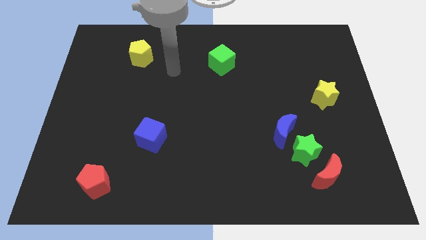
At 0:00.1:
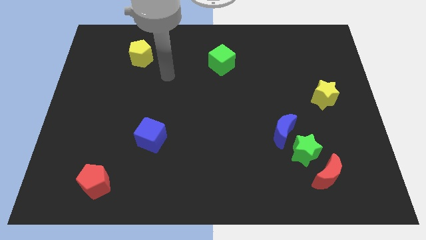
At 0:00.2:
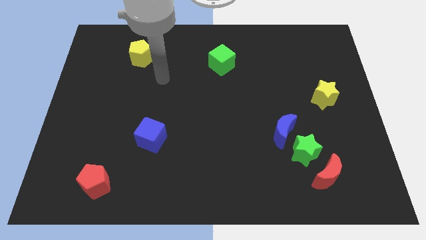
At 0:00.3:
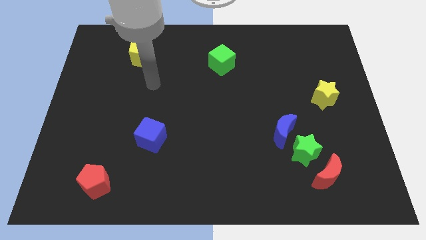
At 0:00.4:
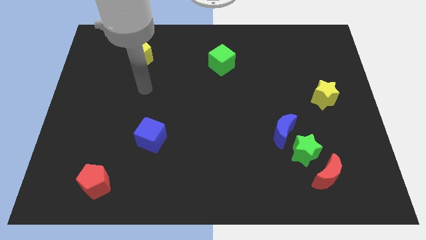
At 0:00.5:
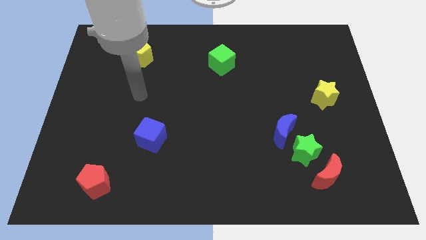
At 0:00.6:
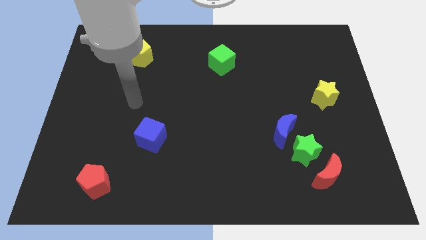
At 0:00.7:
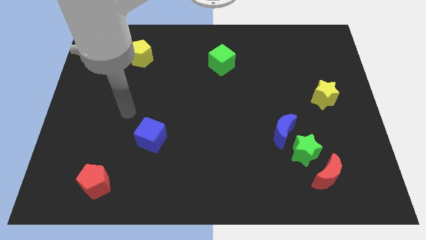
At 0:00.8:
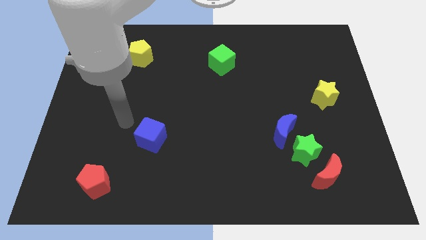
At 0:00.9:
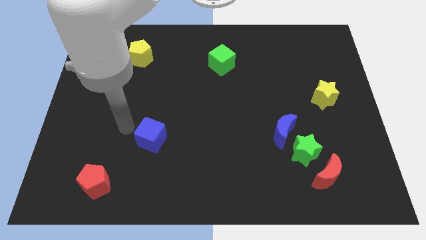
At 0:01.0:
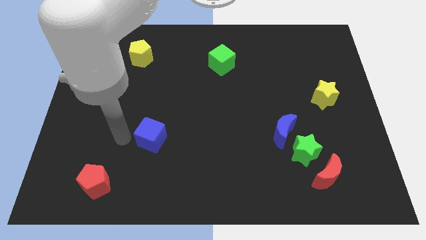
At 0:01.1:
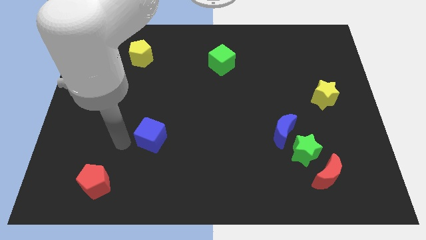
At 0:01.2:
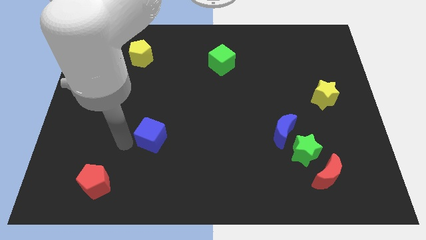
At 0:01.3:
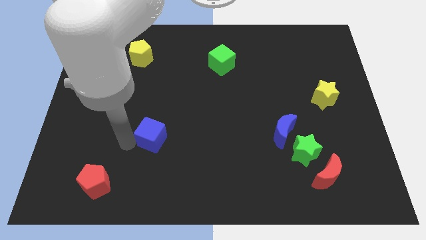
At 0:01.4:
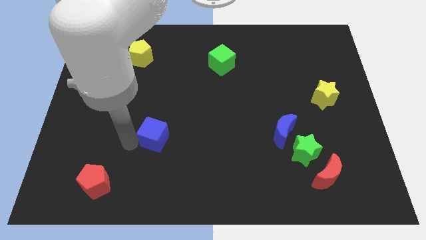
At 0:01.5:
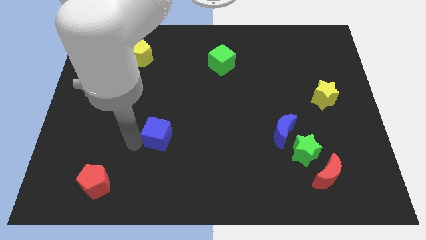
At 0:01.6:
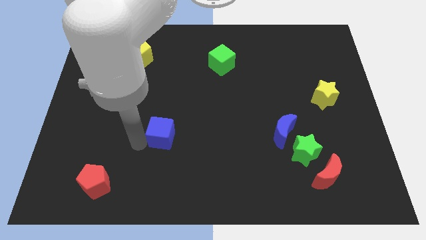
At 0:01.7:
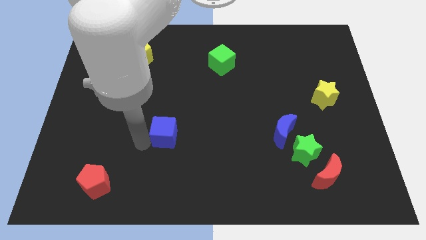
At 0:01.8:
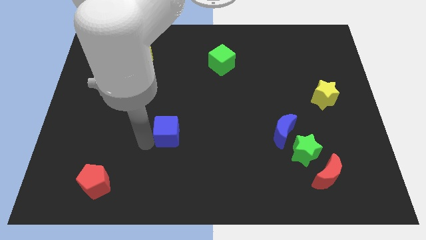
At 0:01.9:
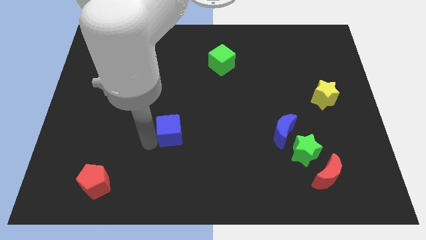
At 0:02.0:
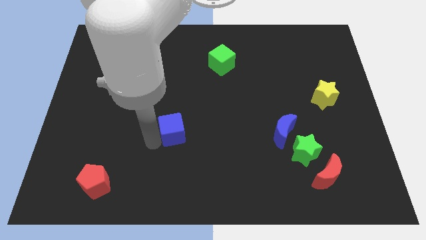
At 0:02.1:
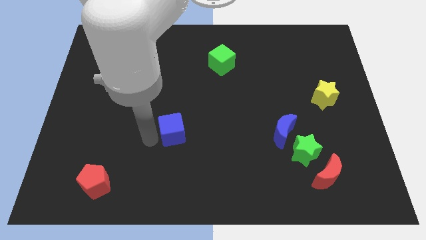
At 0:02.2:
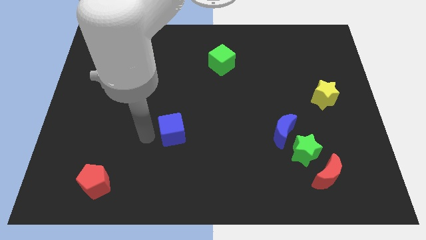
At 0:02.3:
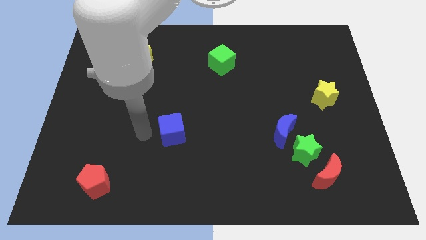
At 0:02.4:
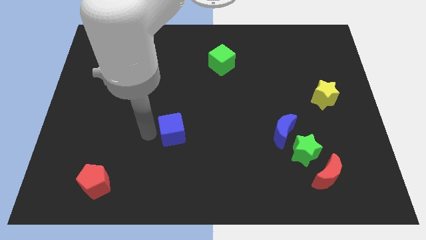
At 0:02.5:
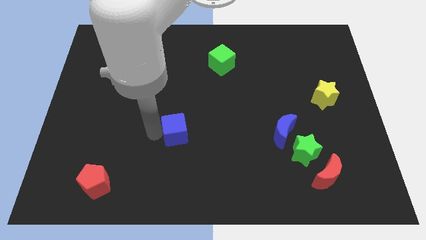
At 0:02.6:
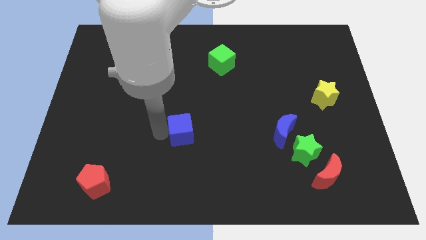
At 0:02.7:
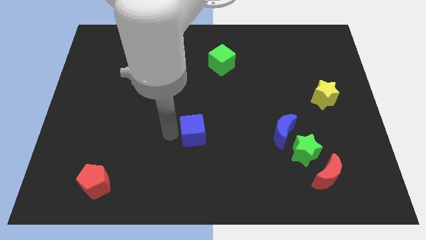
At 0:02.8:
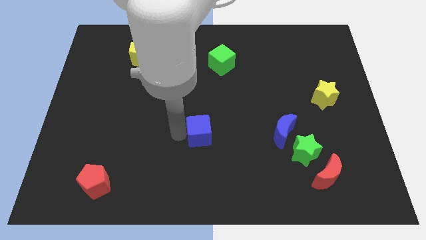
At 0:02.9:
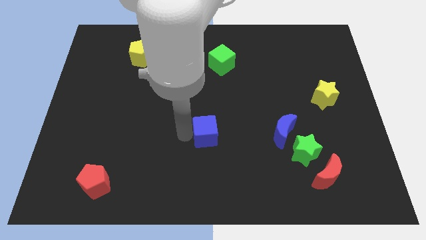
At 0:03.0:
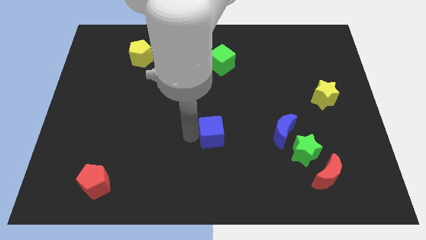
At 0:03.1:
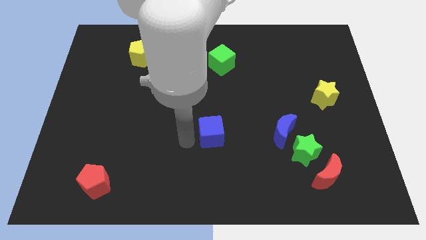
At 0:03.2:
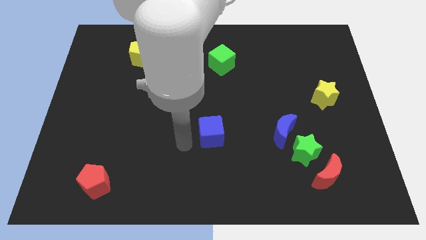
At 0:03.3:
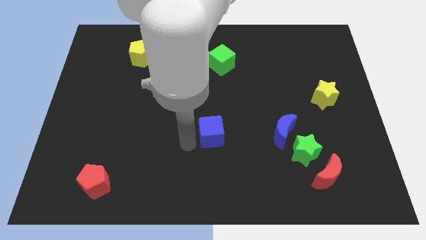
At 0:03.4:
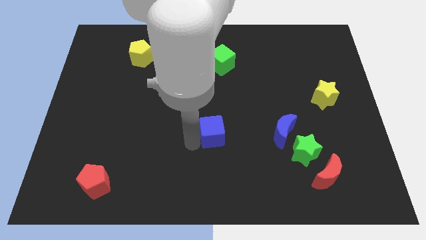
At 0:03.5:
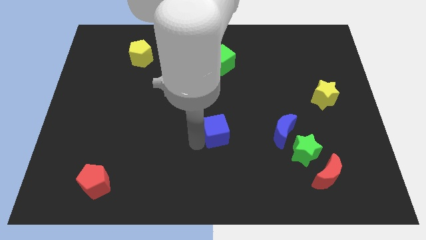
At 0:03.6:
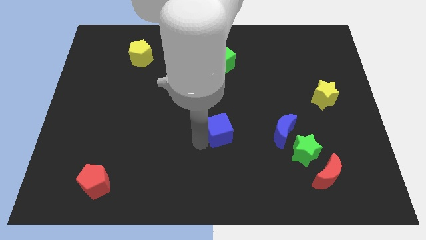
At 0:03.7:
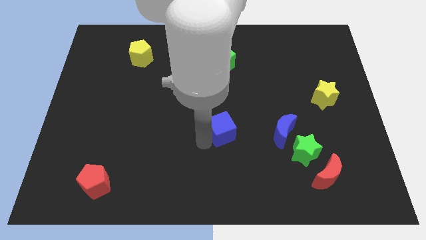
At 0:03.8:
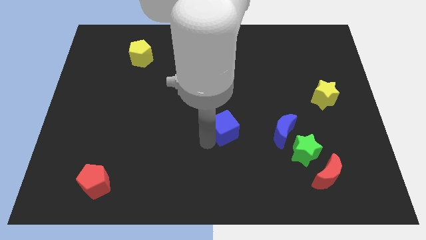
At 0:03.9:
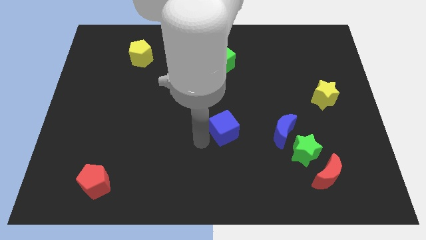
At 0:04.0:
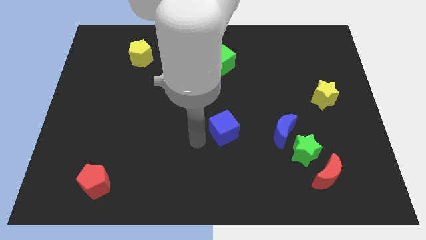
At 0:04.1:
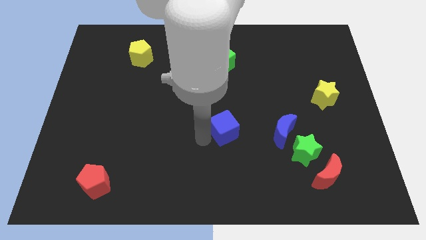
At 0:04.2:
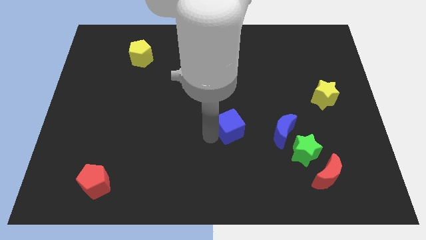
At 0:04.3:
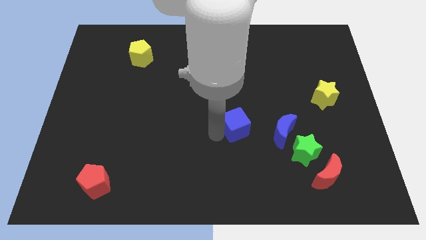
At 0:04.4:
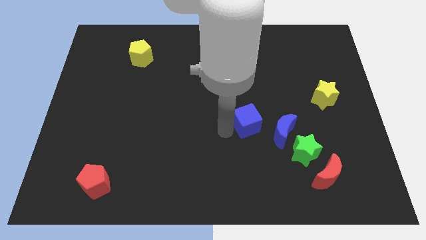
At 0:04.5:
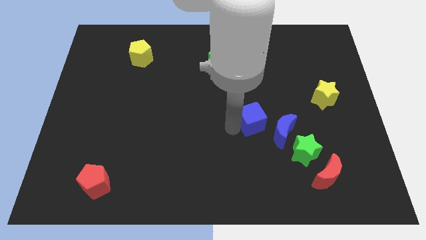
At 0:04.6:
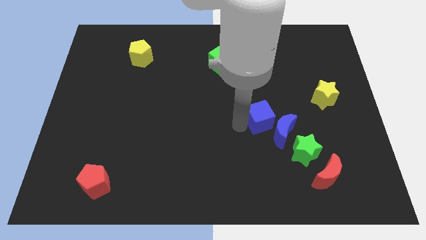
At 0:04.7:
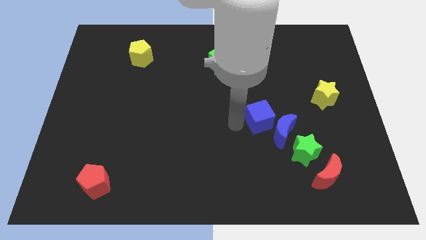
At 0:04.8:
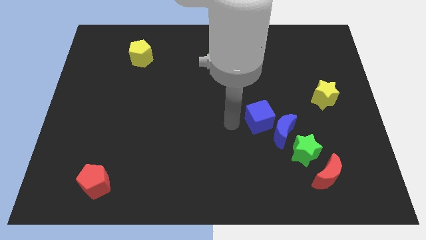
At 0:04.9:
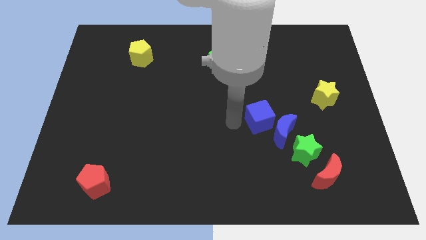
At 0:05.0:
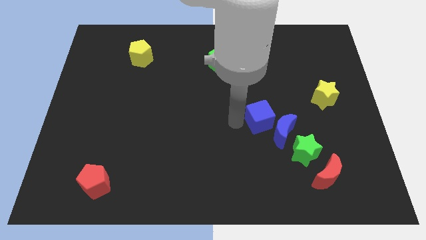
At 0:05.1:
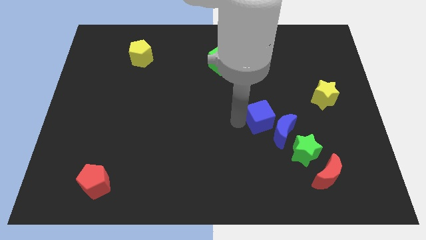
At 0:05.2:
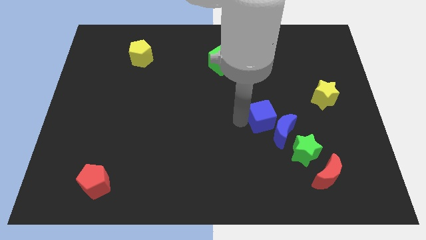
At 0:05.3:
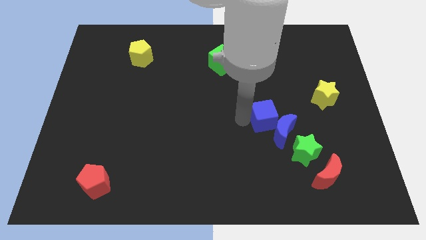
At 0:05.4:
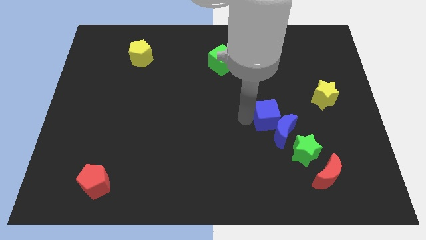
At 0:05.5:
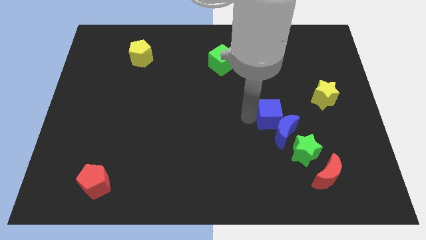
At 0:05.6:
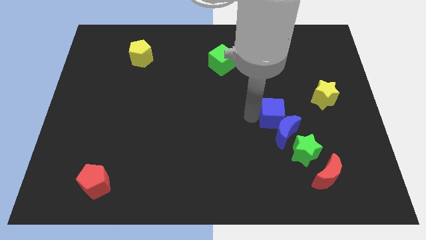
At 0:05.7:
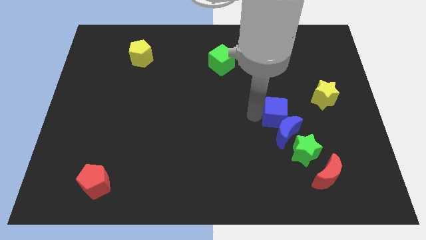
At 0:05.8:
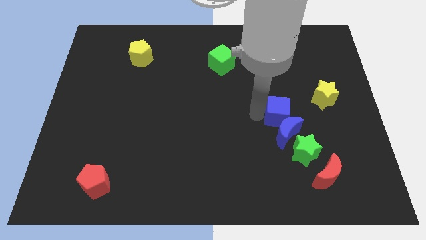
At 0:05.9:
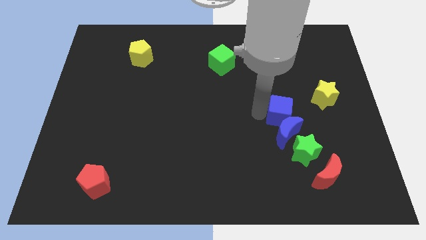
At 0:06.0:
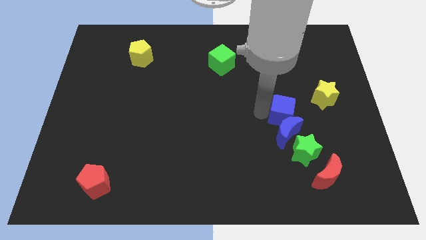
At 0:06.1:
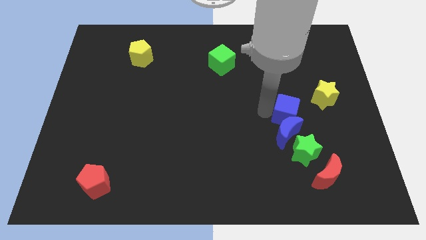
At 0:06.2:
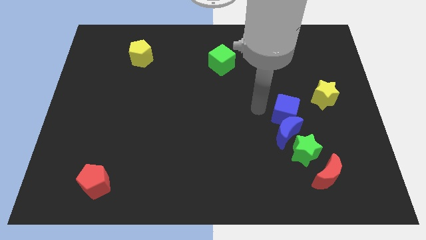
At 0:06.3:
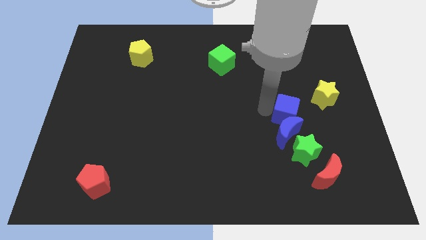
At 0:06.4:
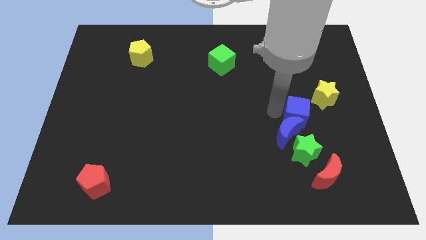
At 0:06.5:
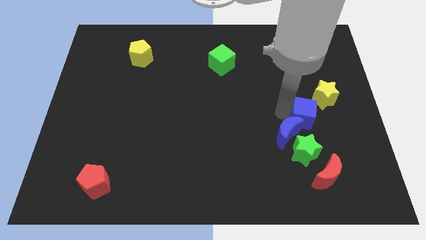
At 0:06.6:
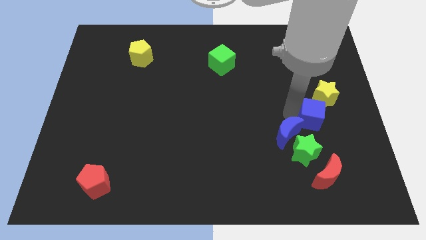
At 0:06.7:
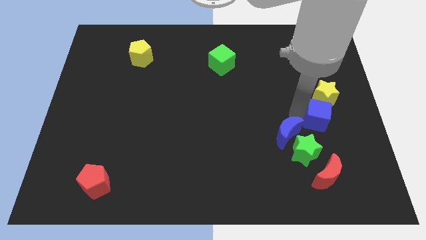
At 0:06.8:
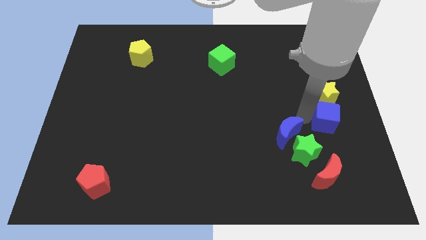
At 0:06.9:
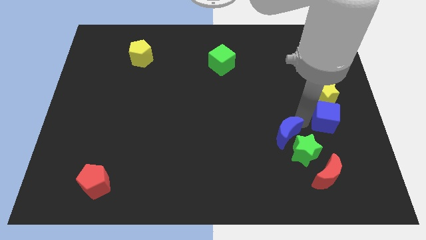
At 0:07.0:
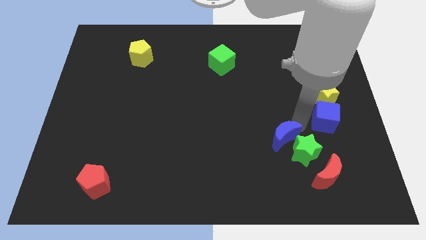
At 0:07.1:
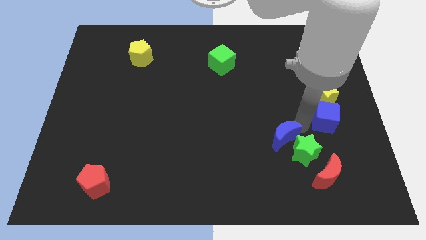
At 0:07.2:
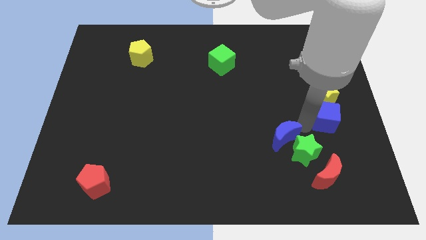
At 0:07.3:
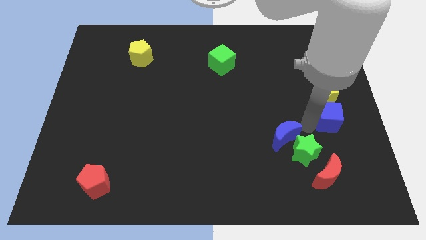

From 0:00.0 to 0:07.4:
move the blue cube to the right side of the board
